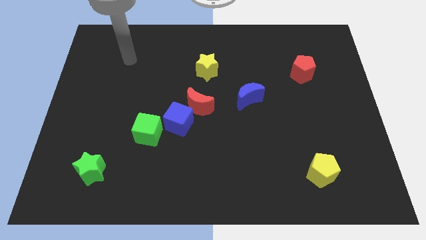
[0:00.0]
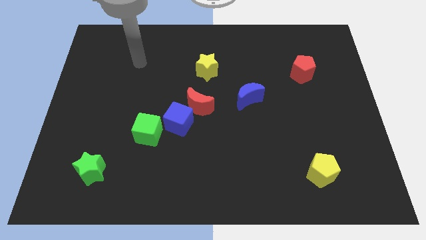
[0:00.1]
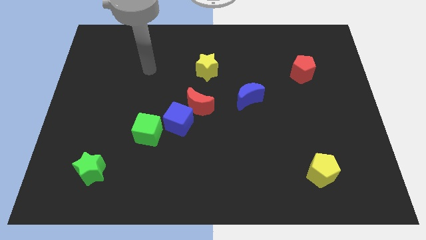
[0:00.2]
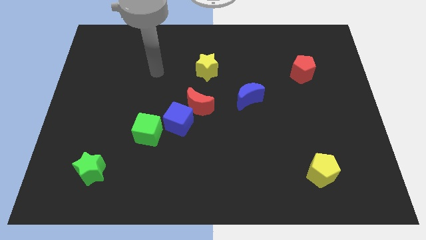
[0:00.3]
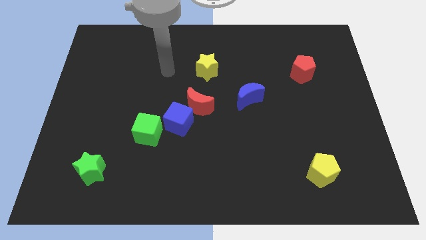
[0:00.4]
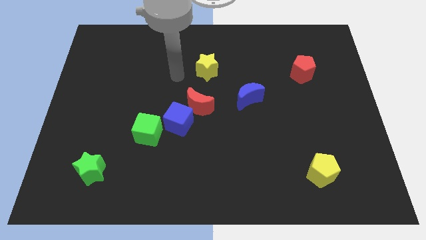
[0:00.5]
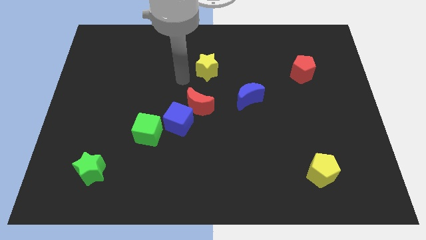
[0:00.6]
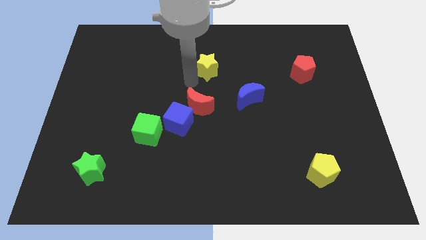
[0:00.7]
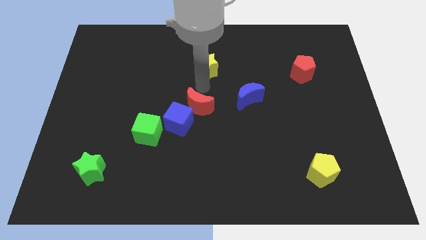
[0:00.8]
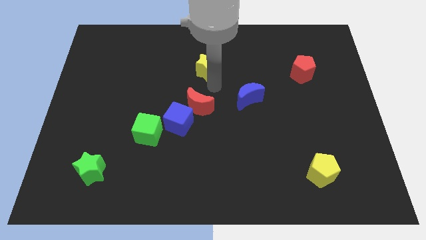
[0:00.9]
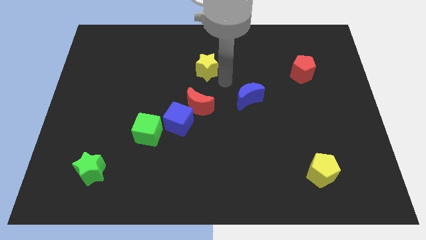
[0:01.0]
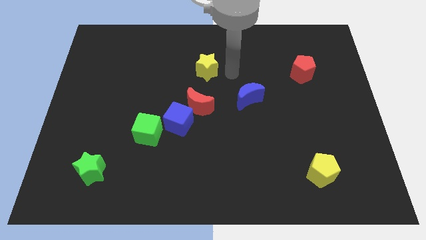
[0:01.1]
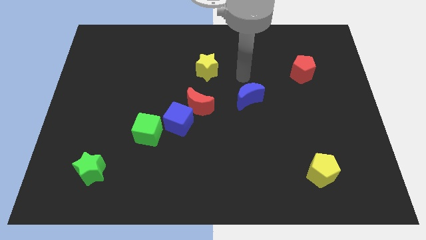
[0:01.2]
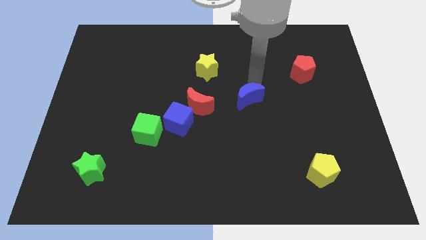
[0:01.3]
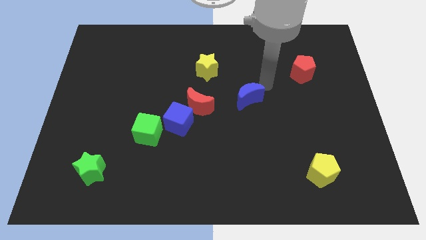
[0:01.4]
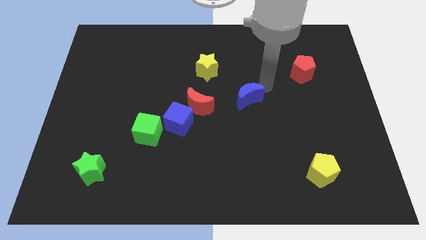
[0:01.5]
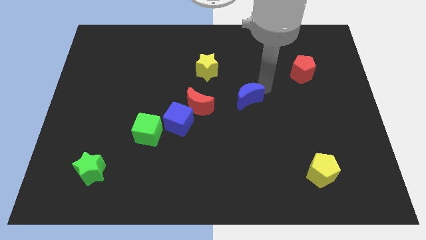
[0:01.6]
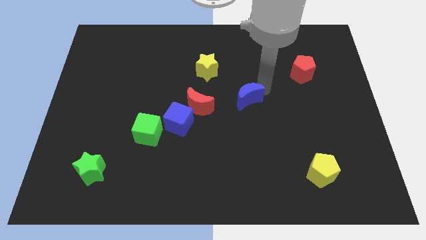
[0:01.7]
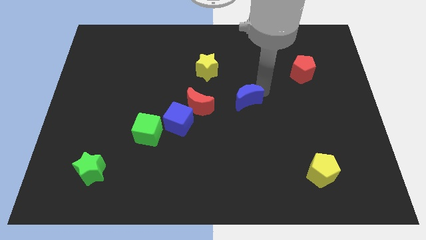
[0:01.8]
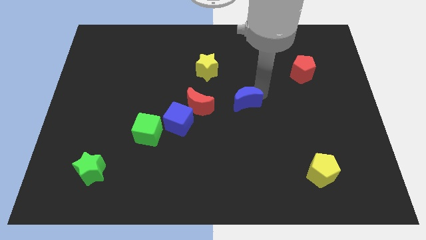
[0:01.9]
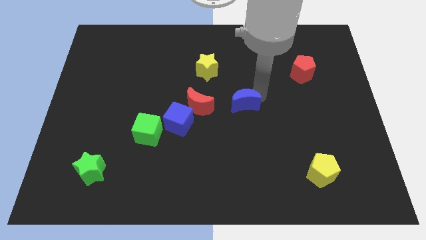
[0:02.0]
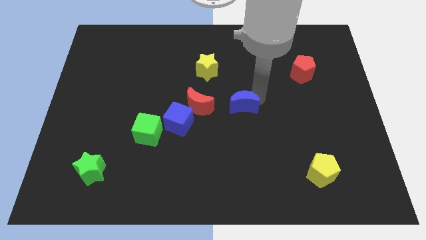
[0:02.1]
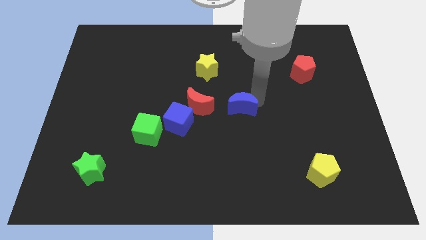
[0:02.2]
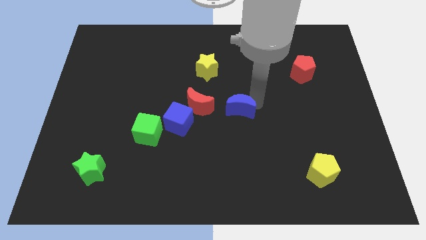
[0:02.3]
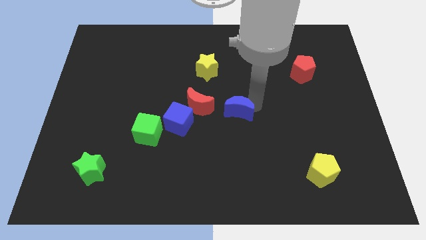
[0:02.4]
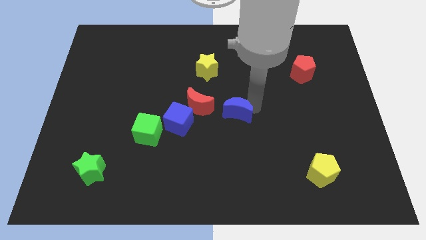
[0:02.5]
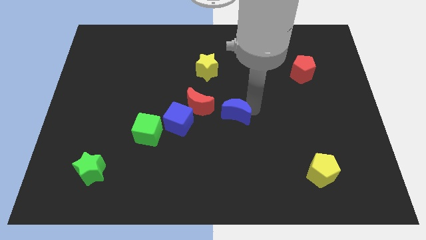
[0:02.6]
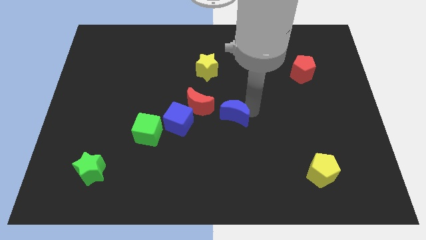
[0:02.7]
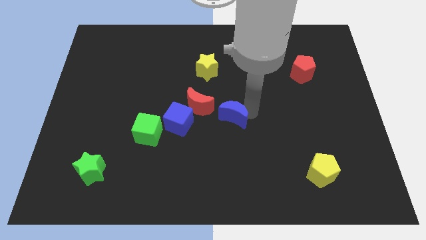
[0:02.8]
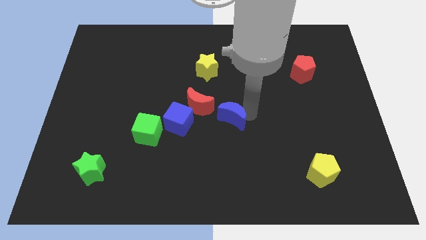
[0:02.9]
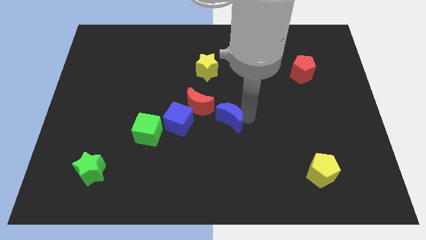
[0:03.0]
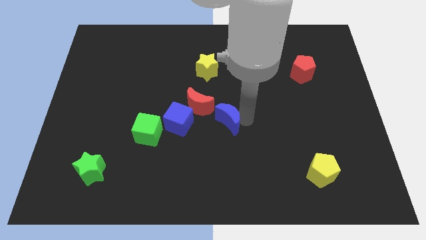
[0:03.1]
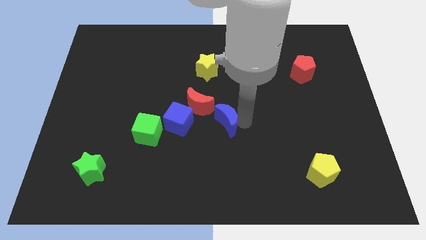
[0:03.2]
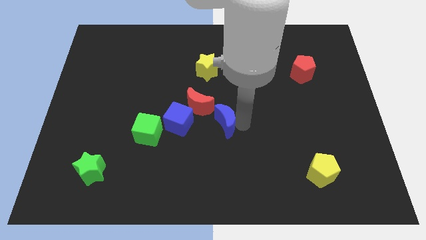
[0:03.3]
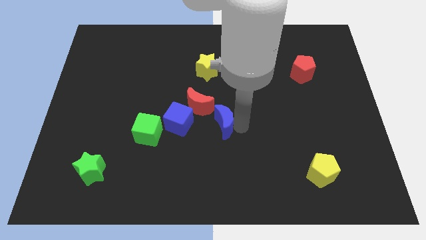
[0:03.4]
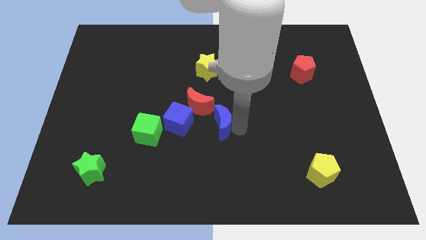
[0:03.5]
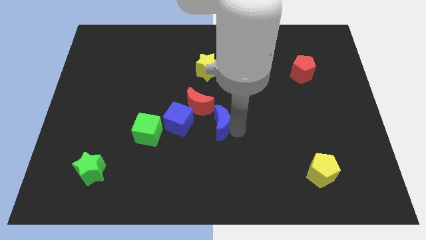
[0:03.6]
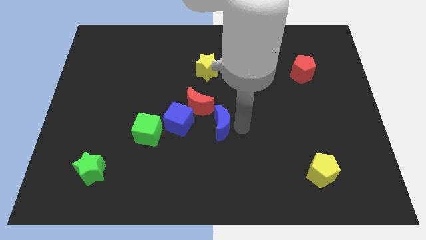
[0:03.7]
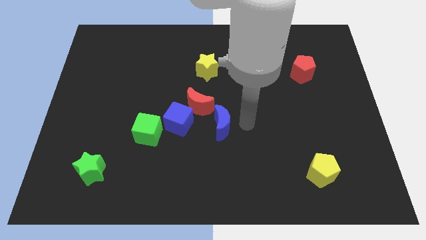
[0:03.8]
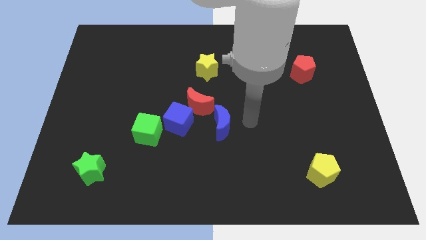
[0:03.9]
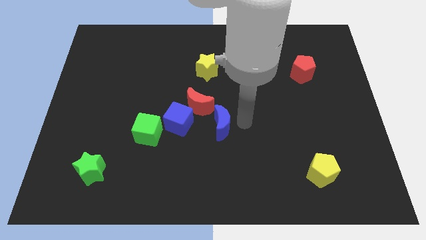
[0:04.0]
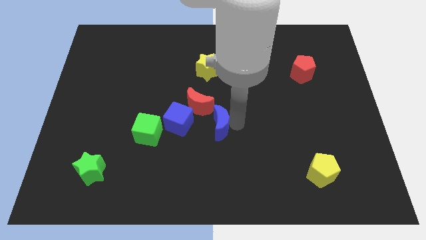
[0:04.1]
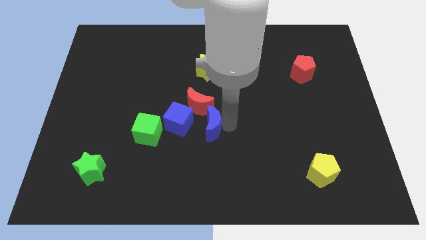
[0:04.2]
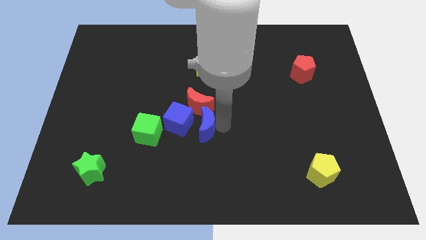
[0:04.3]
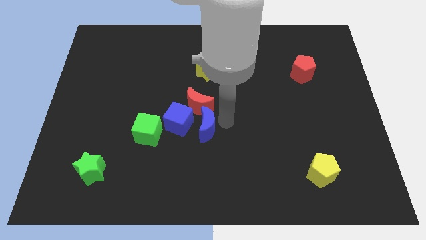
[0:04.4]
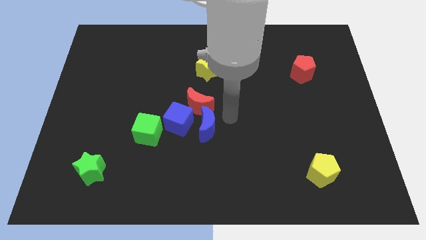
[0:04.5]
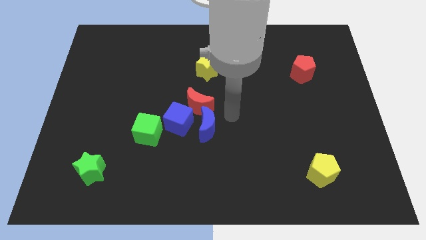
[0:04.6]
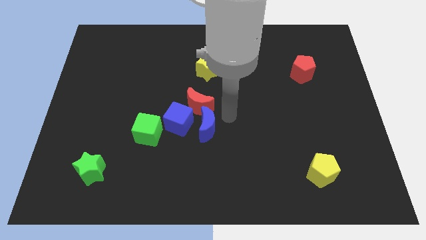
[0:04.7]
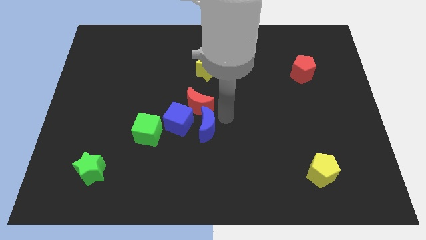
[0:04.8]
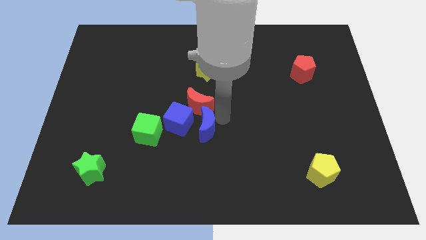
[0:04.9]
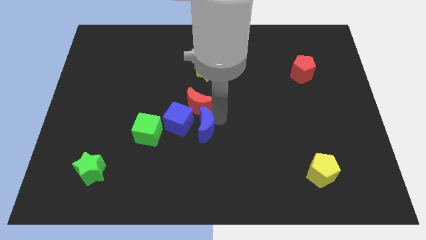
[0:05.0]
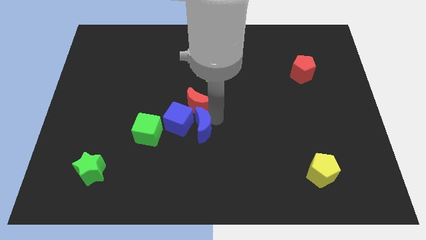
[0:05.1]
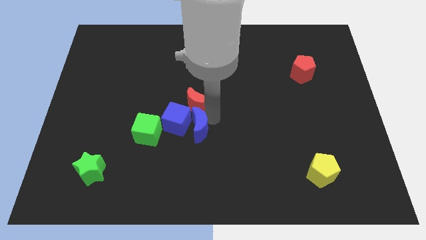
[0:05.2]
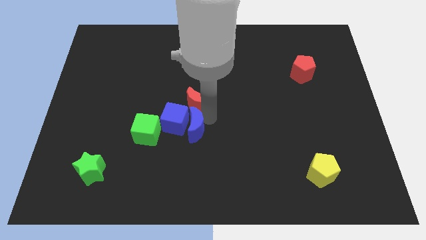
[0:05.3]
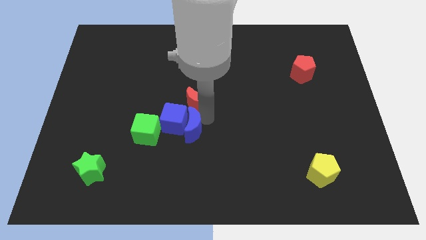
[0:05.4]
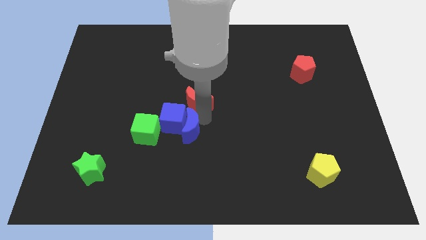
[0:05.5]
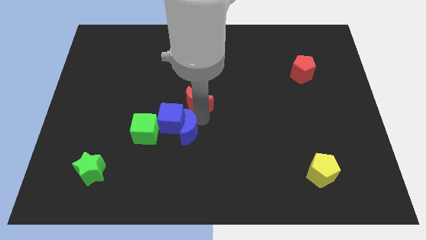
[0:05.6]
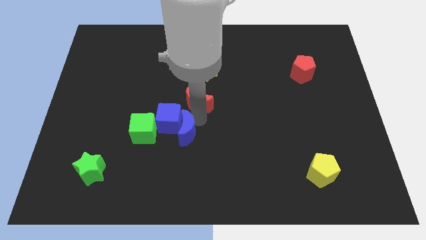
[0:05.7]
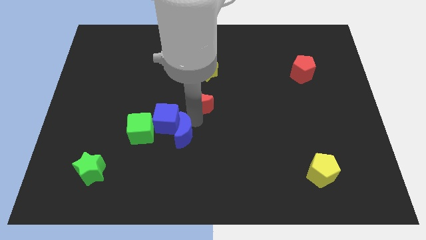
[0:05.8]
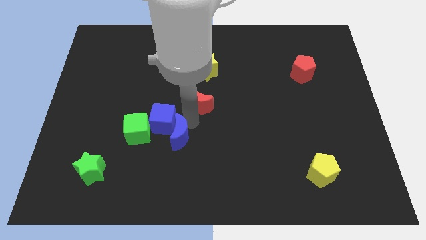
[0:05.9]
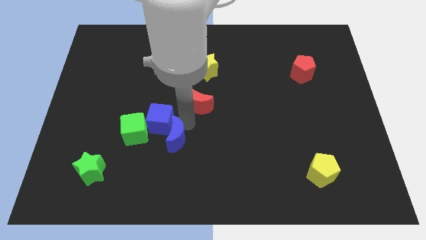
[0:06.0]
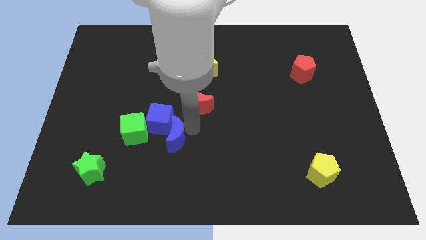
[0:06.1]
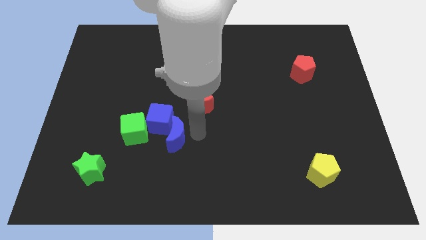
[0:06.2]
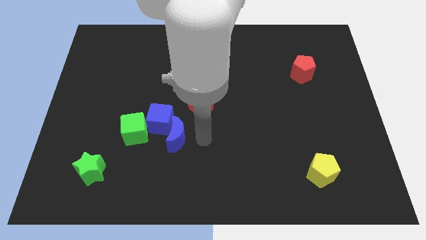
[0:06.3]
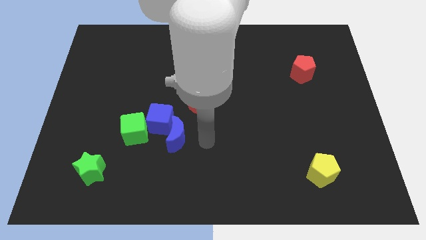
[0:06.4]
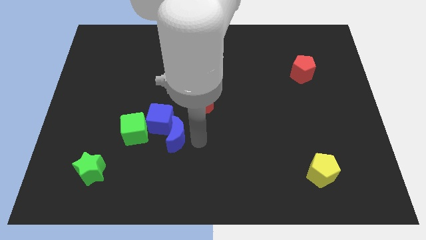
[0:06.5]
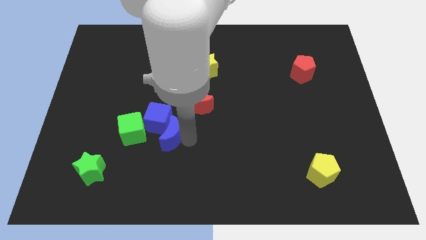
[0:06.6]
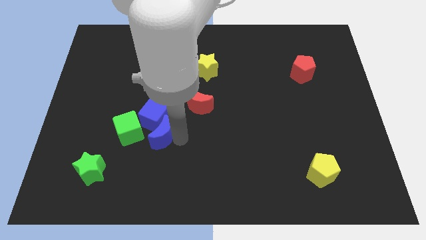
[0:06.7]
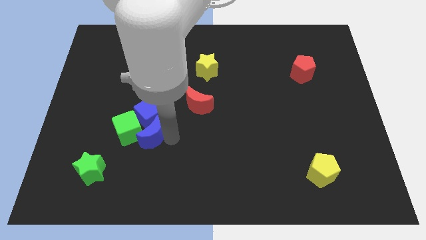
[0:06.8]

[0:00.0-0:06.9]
slide the blue moon close to the green cube

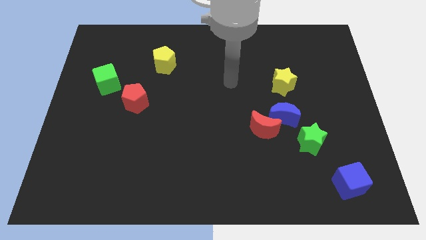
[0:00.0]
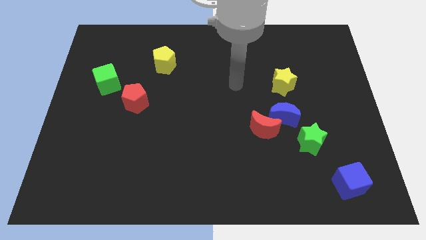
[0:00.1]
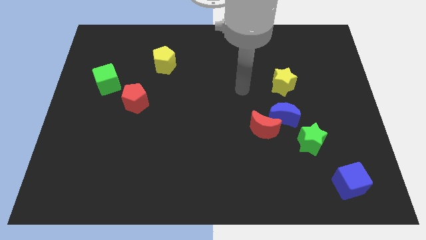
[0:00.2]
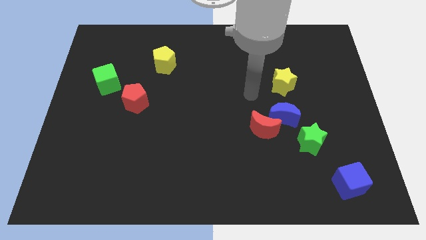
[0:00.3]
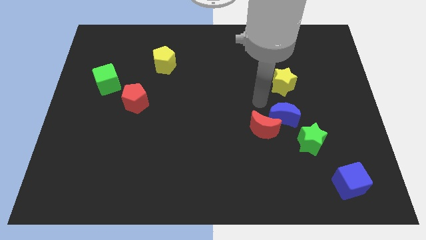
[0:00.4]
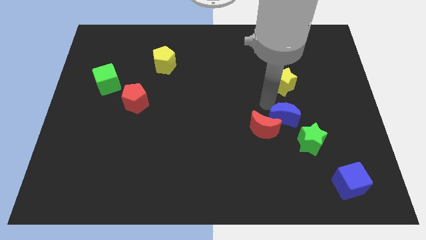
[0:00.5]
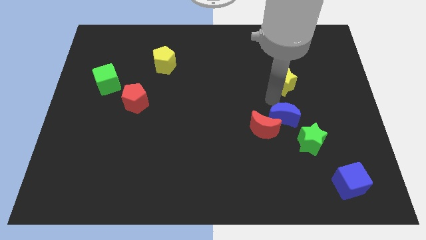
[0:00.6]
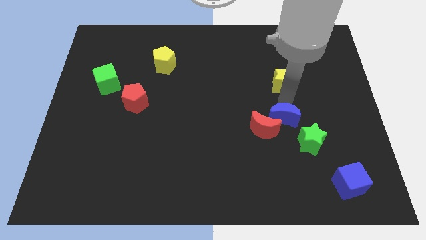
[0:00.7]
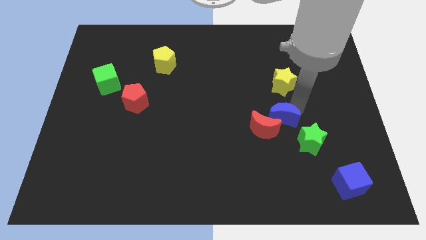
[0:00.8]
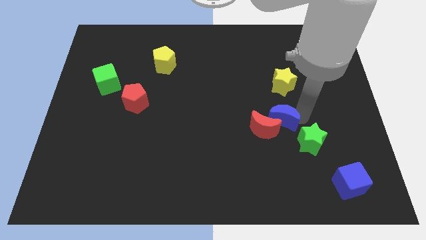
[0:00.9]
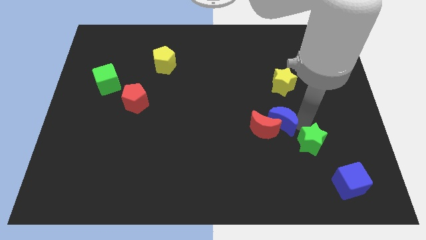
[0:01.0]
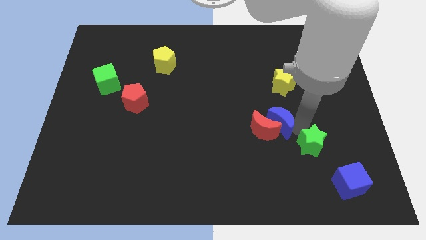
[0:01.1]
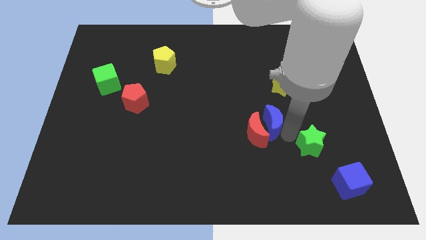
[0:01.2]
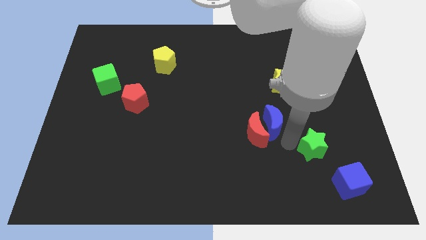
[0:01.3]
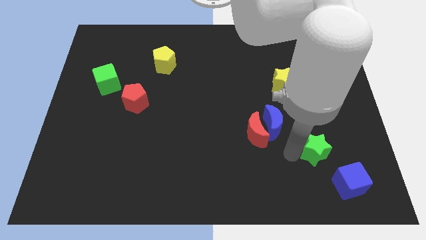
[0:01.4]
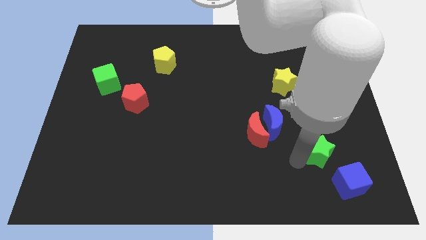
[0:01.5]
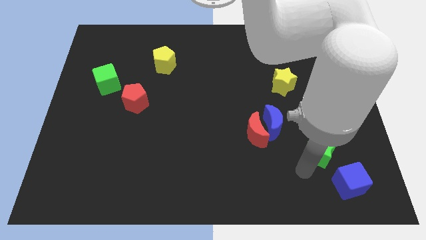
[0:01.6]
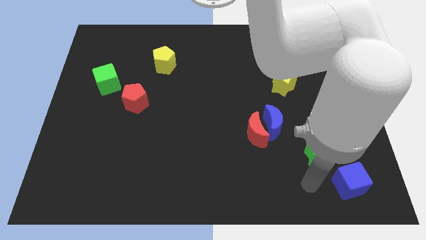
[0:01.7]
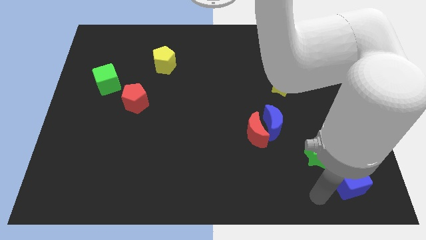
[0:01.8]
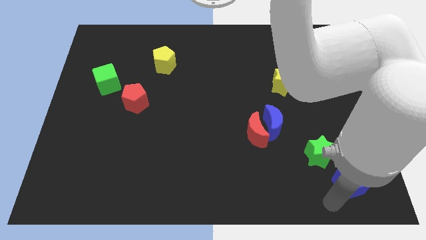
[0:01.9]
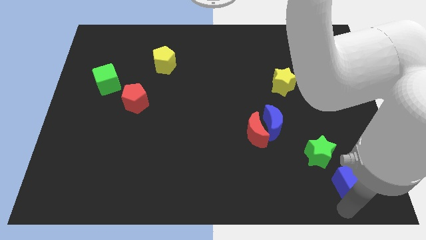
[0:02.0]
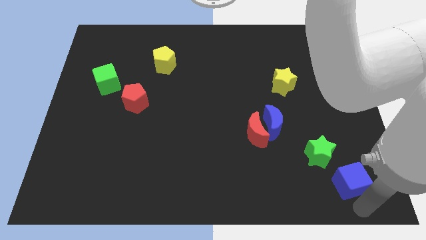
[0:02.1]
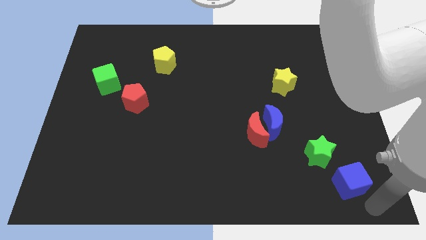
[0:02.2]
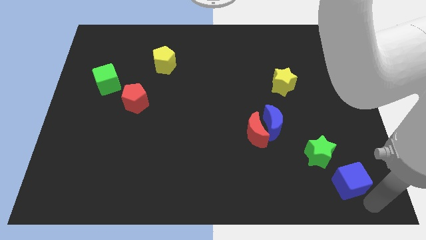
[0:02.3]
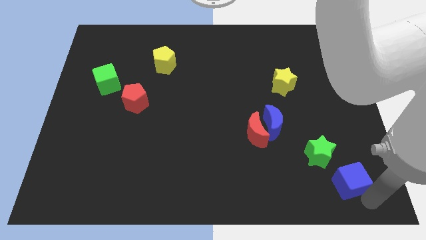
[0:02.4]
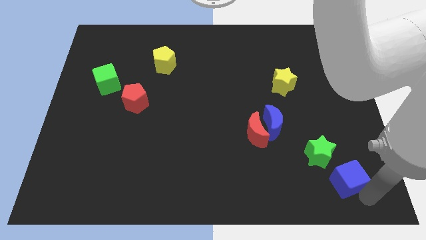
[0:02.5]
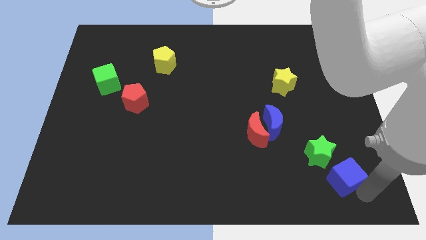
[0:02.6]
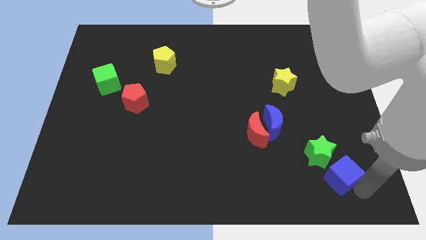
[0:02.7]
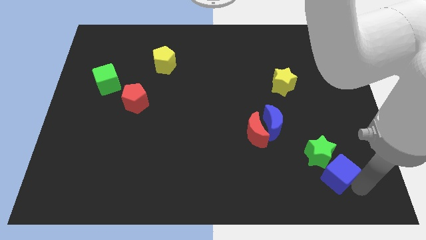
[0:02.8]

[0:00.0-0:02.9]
put the blue cube to the green star
